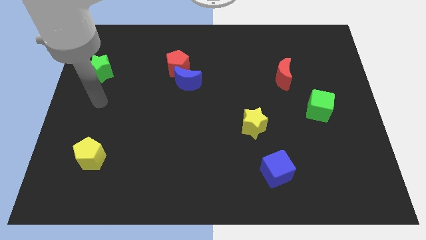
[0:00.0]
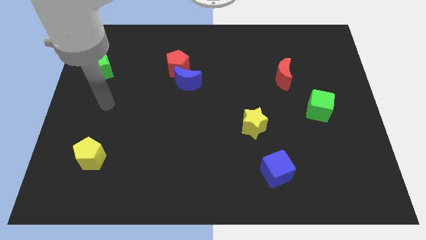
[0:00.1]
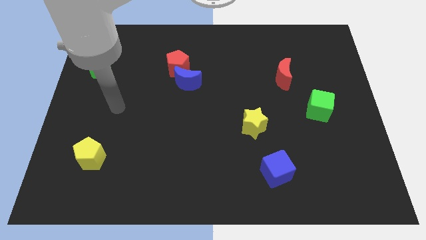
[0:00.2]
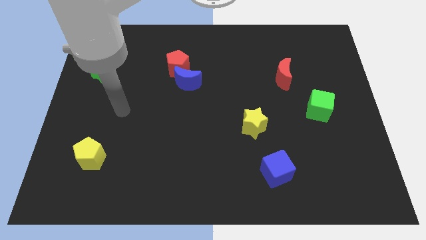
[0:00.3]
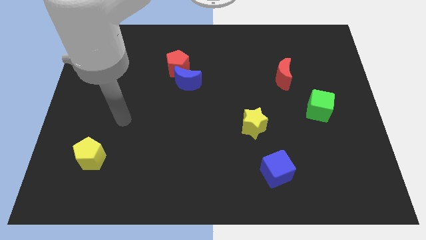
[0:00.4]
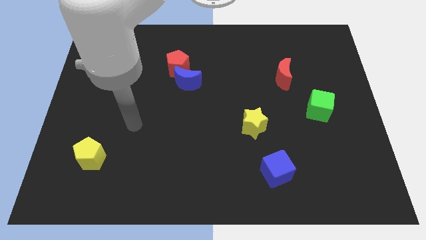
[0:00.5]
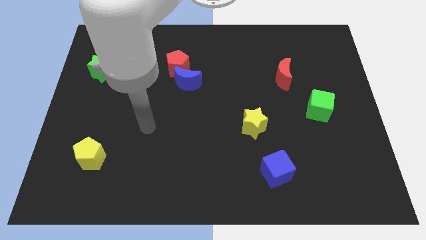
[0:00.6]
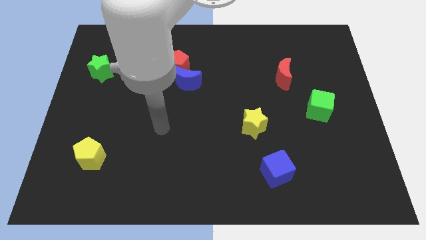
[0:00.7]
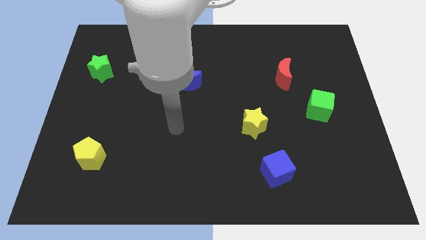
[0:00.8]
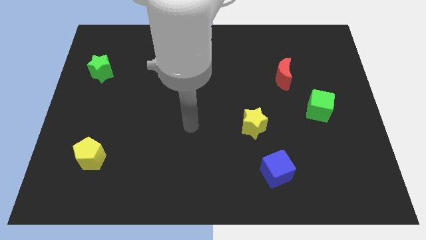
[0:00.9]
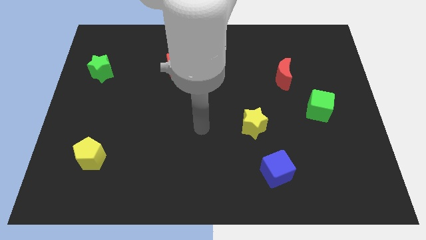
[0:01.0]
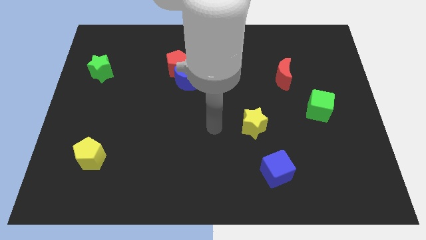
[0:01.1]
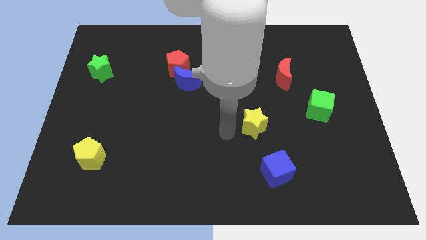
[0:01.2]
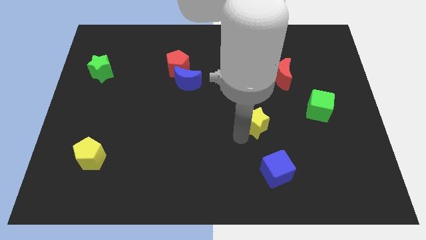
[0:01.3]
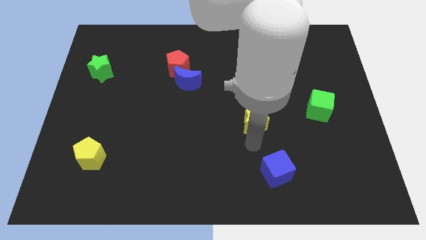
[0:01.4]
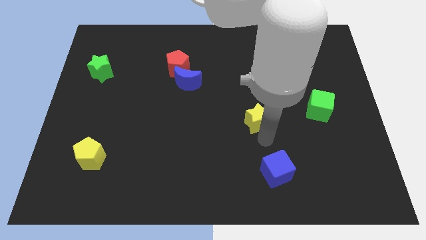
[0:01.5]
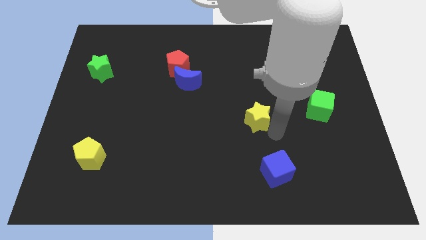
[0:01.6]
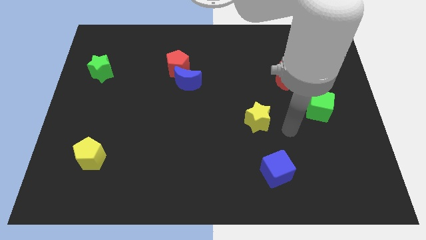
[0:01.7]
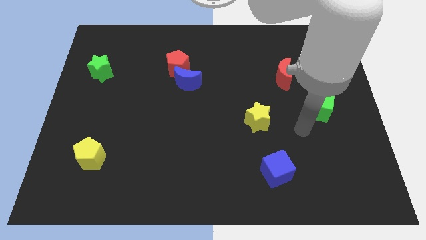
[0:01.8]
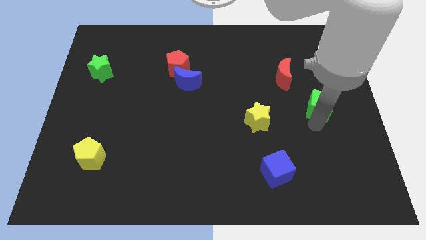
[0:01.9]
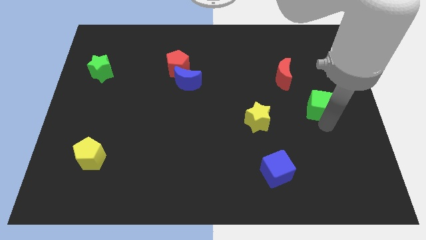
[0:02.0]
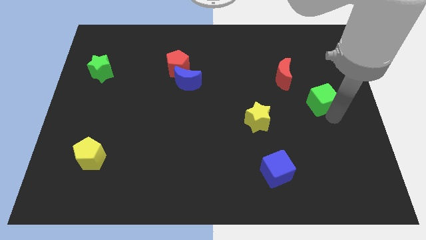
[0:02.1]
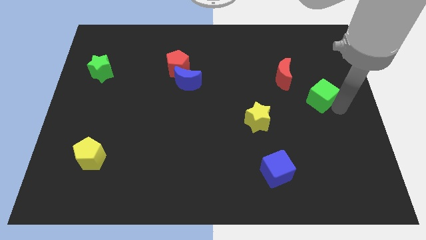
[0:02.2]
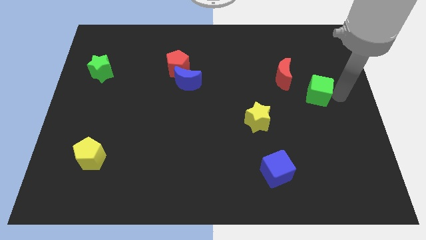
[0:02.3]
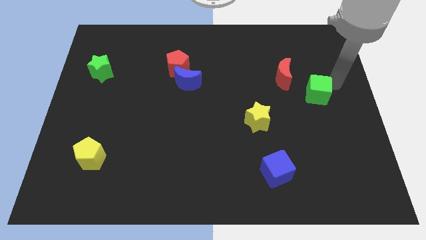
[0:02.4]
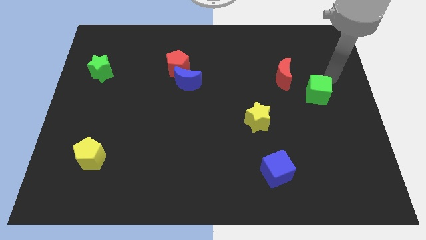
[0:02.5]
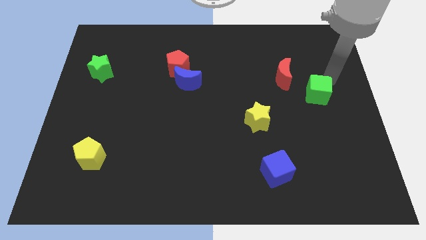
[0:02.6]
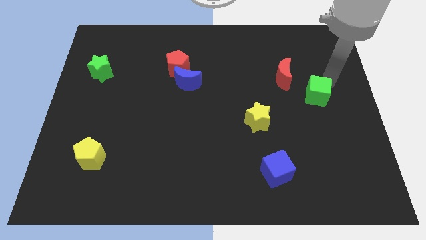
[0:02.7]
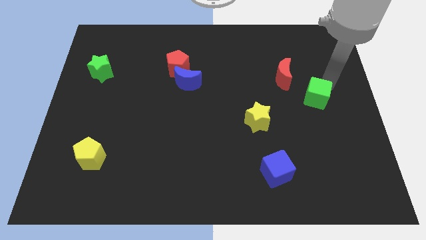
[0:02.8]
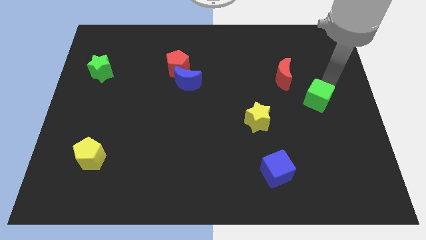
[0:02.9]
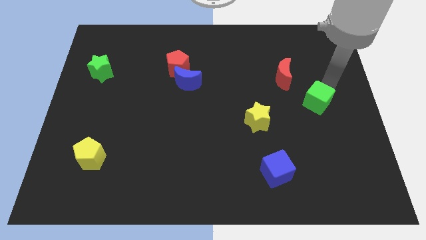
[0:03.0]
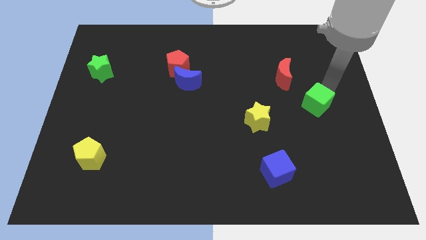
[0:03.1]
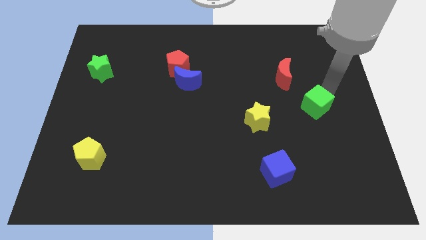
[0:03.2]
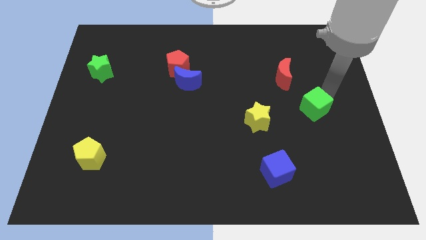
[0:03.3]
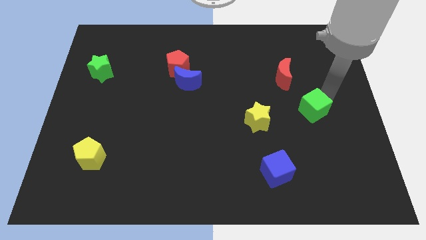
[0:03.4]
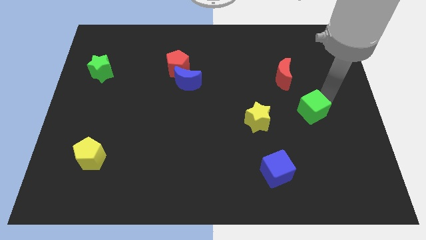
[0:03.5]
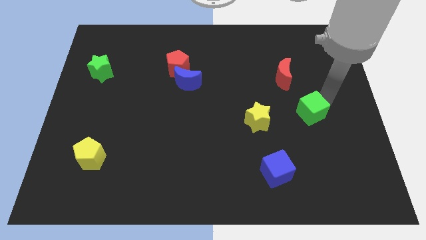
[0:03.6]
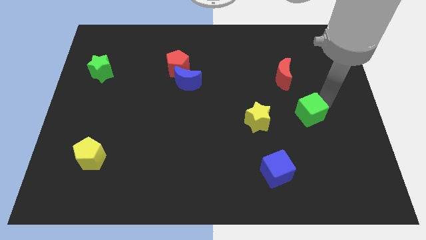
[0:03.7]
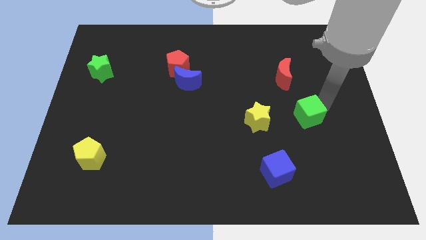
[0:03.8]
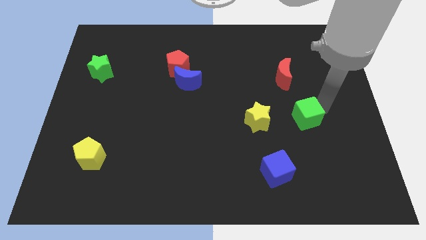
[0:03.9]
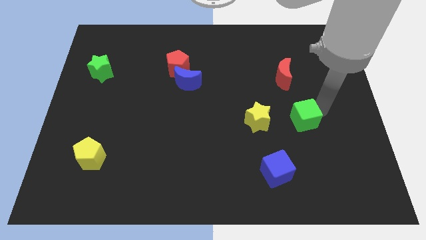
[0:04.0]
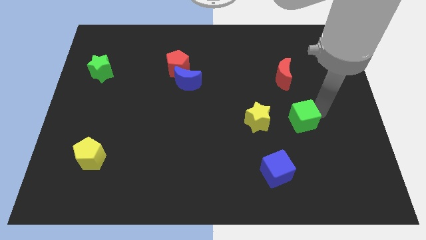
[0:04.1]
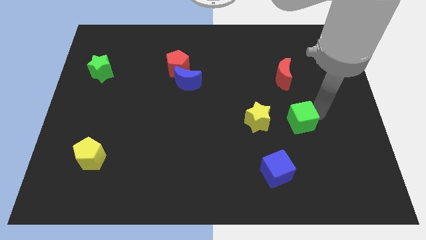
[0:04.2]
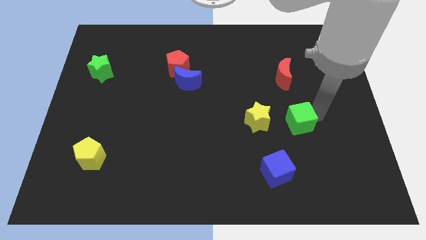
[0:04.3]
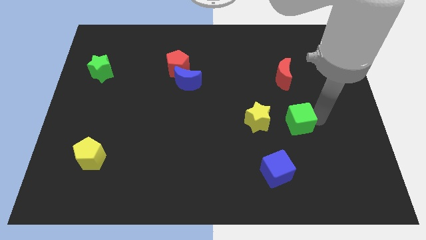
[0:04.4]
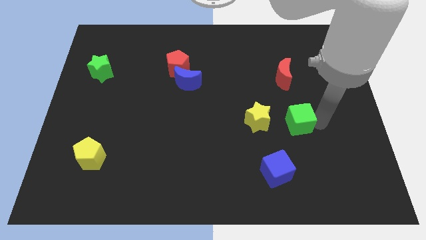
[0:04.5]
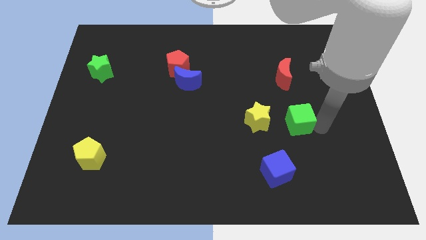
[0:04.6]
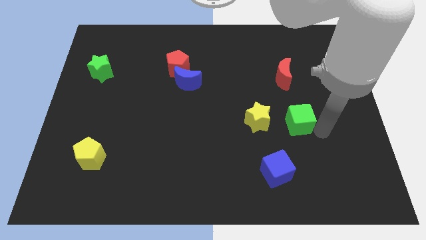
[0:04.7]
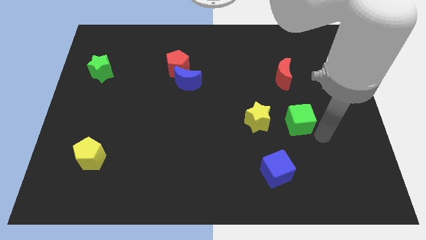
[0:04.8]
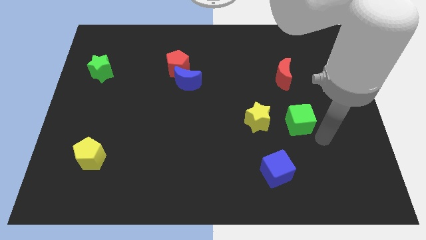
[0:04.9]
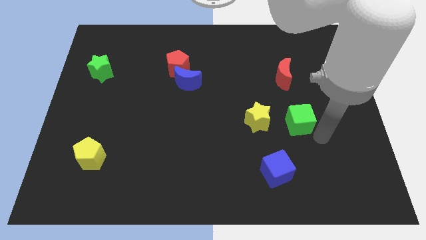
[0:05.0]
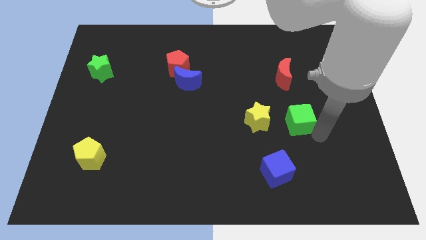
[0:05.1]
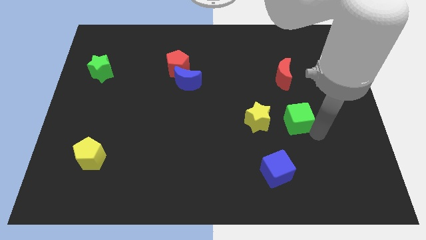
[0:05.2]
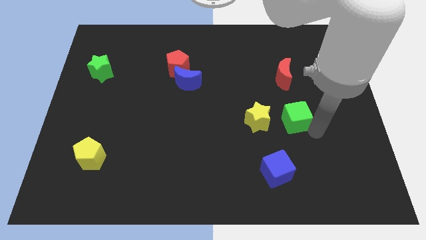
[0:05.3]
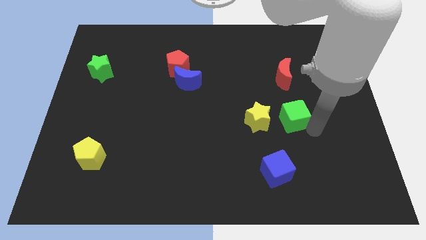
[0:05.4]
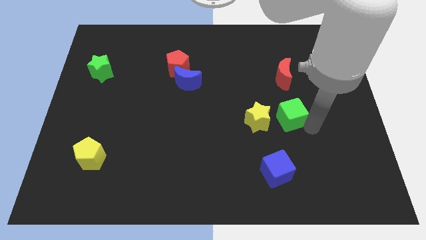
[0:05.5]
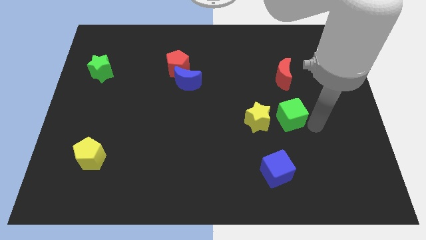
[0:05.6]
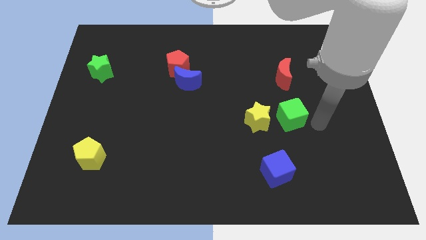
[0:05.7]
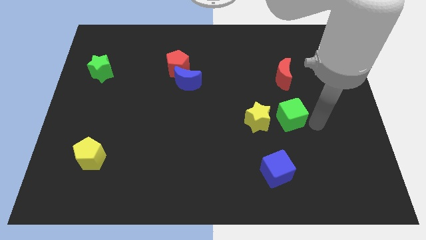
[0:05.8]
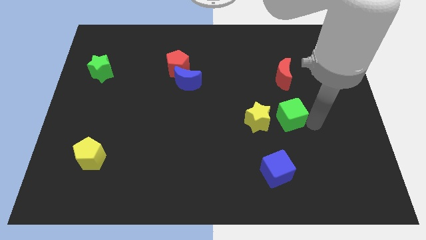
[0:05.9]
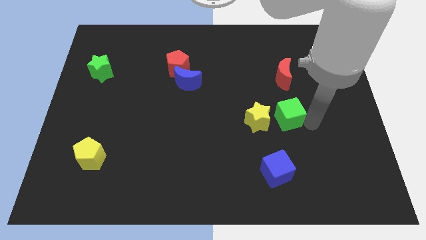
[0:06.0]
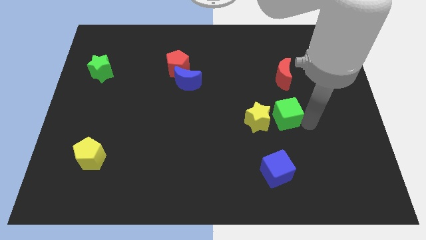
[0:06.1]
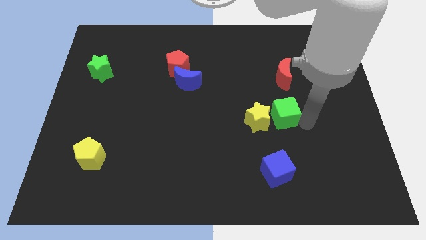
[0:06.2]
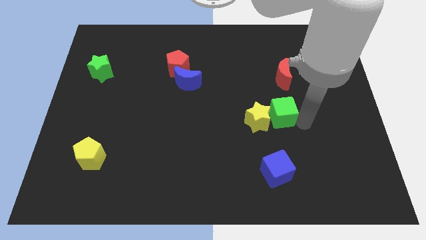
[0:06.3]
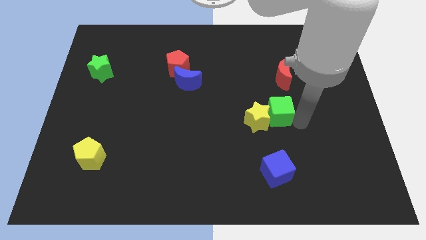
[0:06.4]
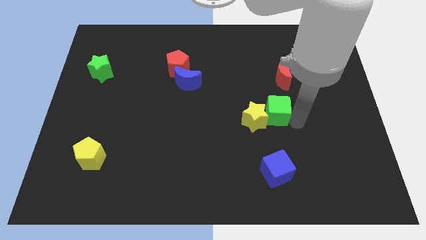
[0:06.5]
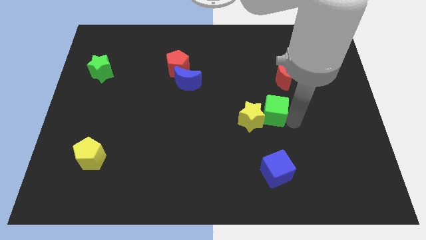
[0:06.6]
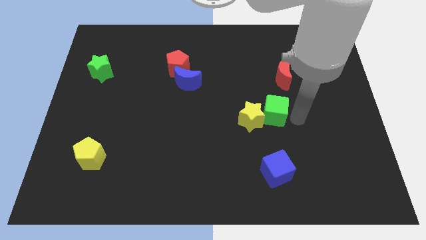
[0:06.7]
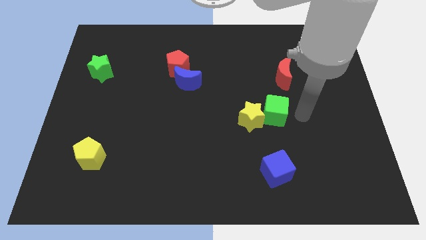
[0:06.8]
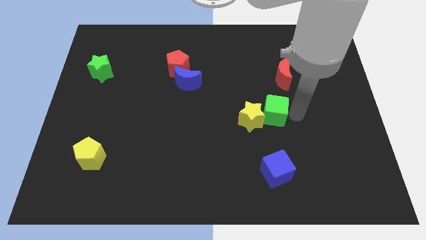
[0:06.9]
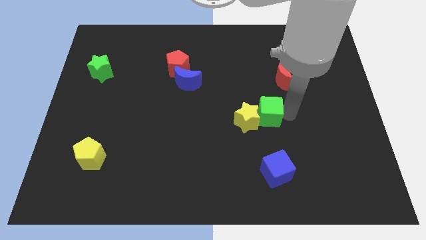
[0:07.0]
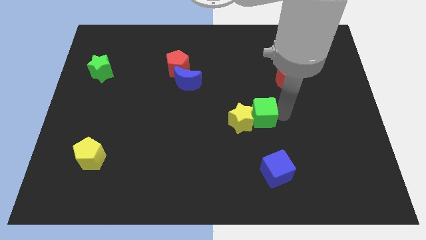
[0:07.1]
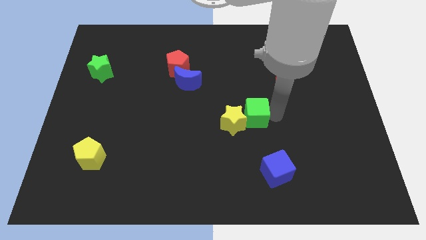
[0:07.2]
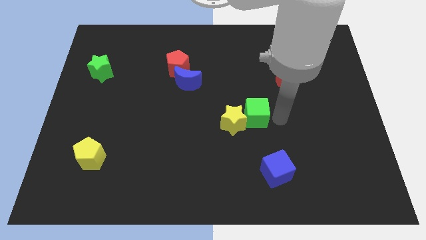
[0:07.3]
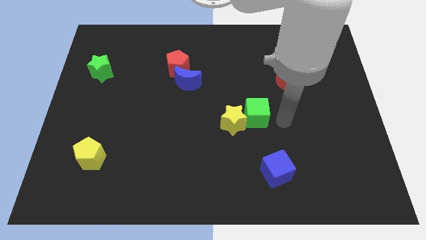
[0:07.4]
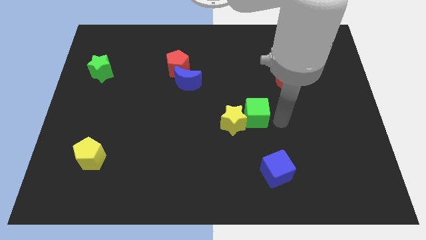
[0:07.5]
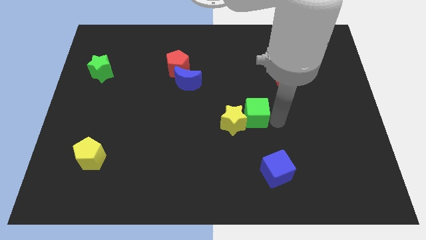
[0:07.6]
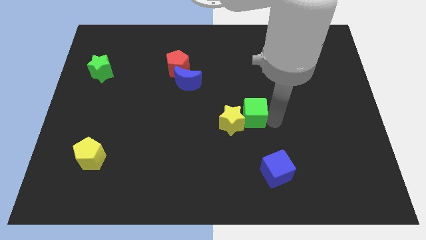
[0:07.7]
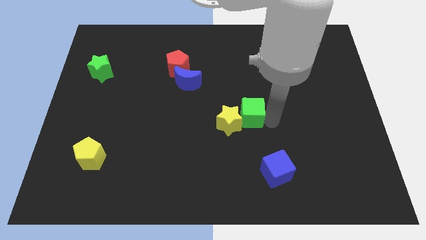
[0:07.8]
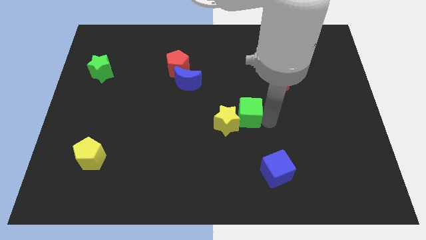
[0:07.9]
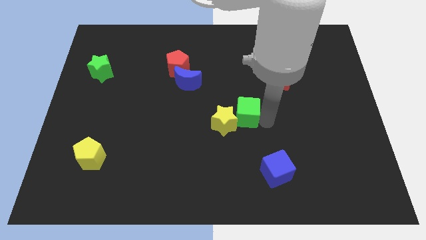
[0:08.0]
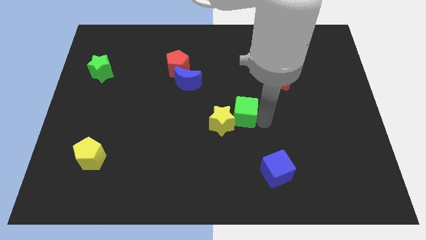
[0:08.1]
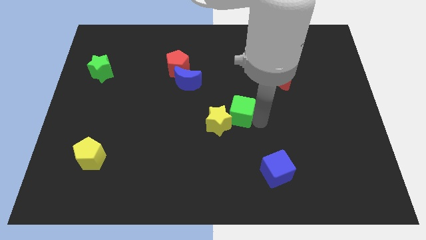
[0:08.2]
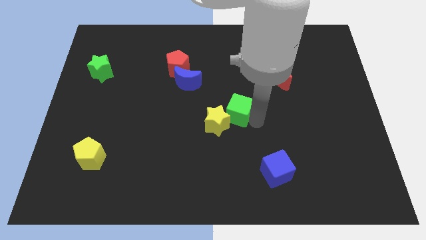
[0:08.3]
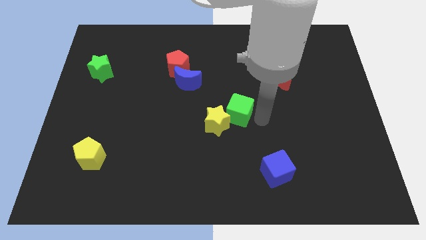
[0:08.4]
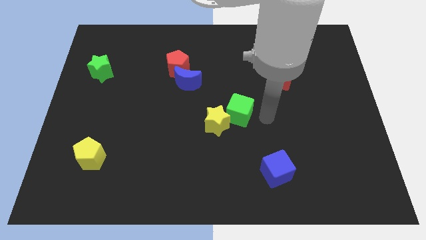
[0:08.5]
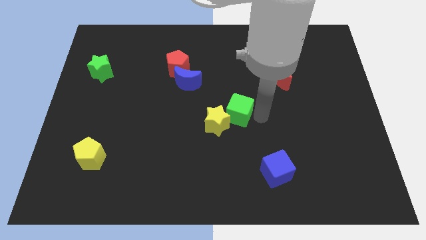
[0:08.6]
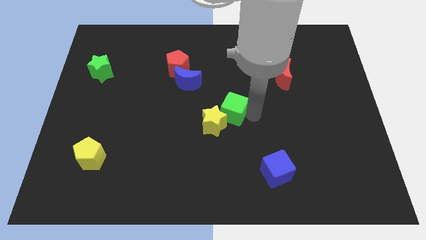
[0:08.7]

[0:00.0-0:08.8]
push the green cube to the left
